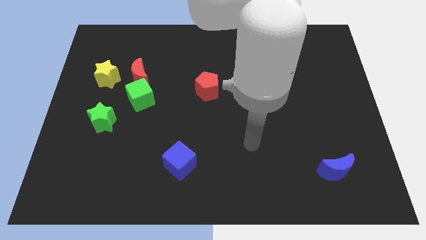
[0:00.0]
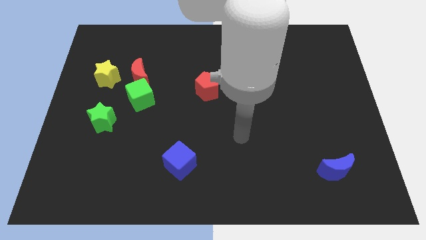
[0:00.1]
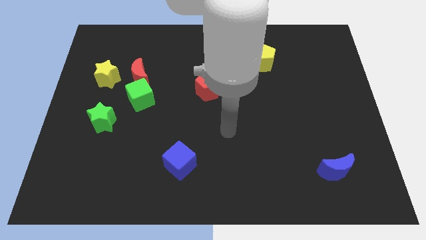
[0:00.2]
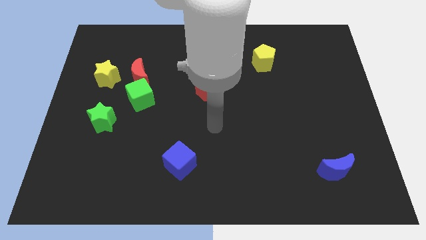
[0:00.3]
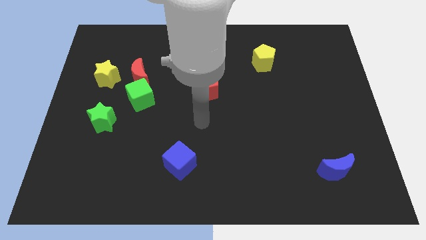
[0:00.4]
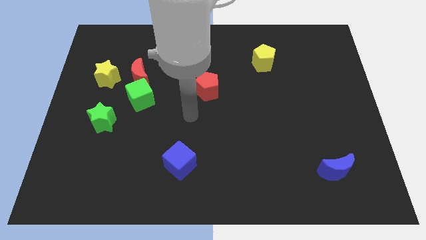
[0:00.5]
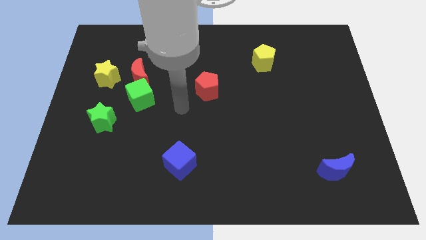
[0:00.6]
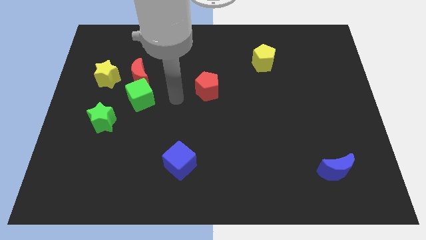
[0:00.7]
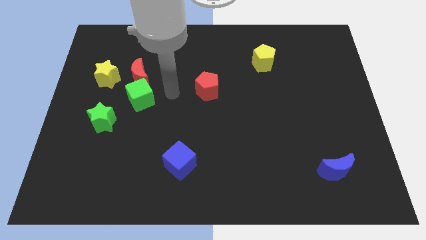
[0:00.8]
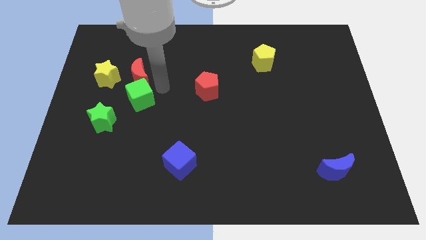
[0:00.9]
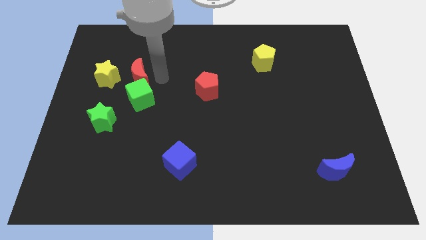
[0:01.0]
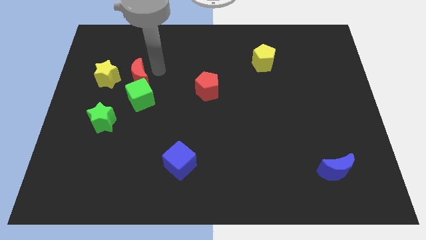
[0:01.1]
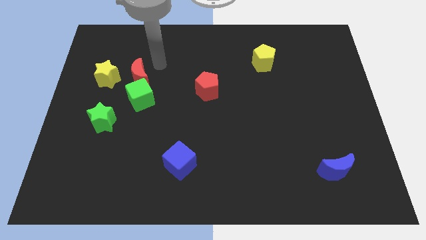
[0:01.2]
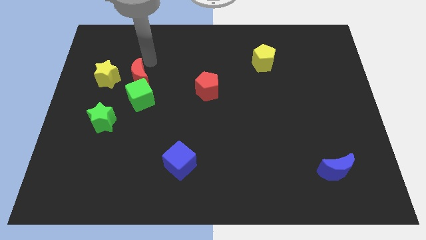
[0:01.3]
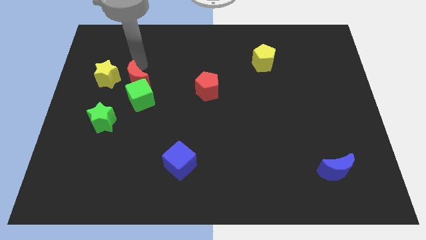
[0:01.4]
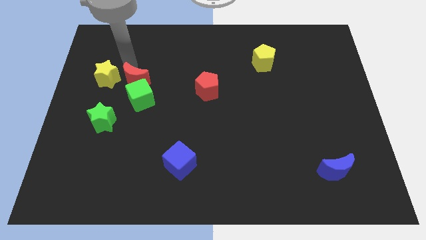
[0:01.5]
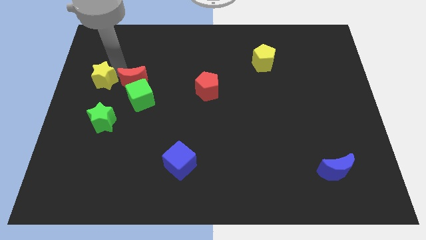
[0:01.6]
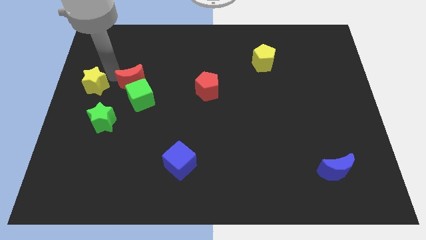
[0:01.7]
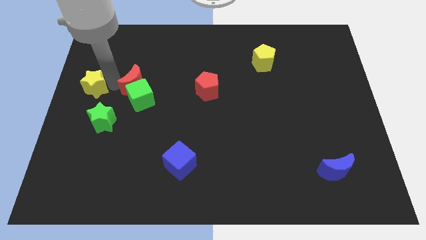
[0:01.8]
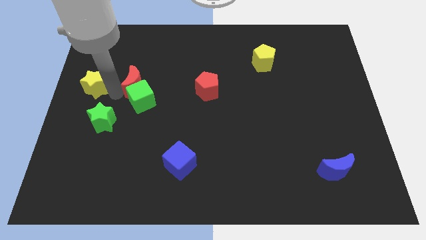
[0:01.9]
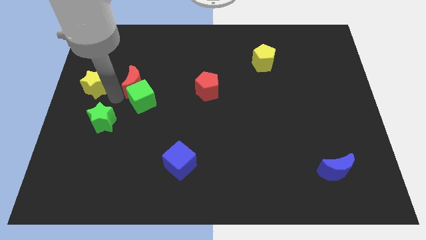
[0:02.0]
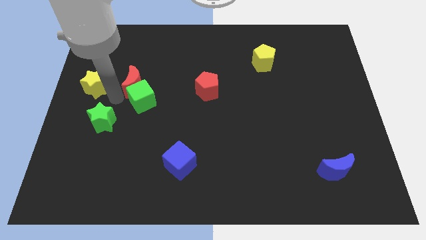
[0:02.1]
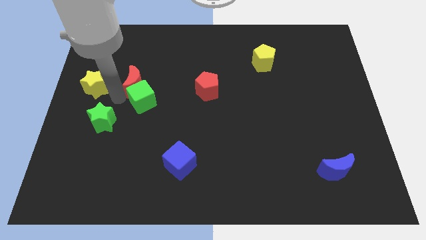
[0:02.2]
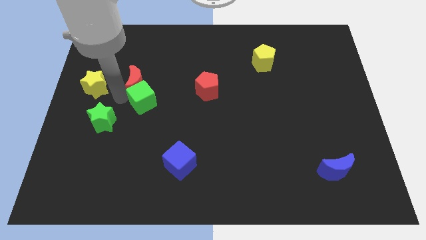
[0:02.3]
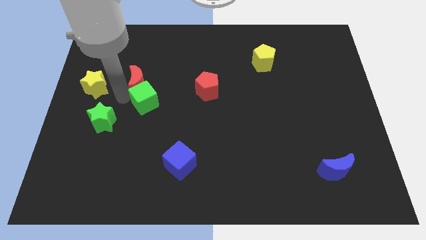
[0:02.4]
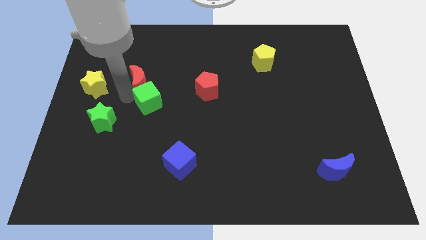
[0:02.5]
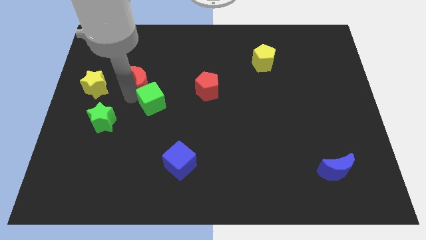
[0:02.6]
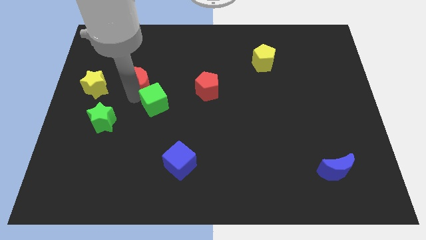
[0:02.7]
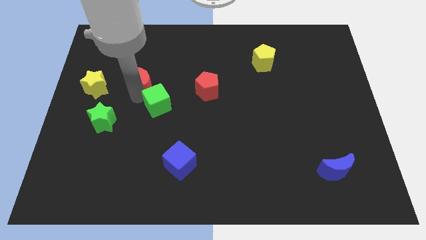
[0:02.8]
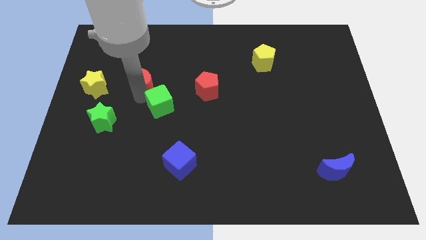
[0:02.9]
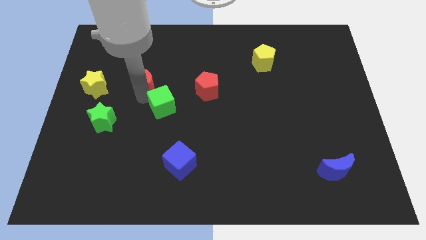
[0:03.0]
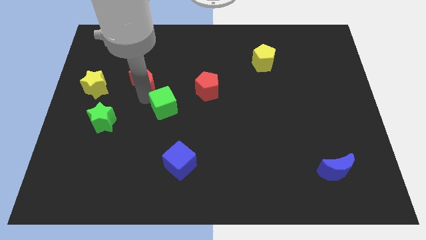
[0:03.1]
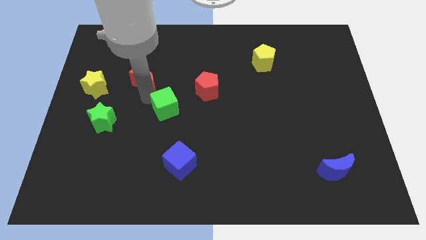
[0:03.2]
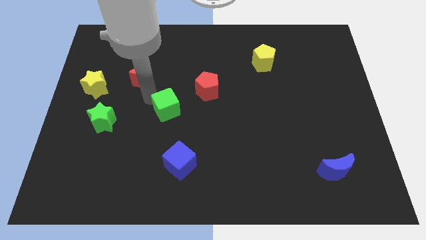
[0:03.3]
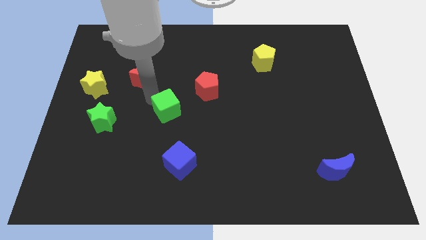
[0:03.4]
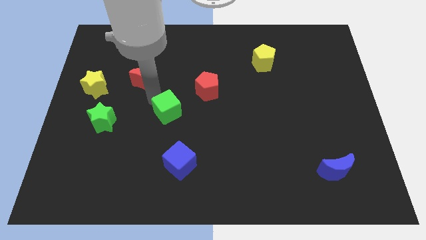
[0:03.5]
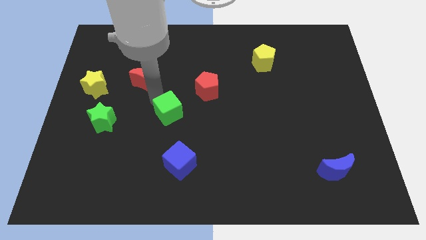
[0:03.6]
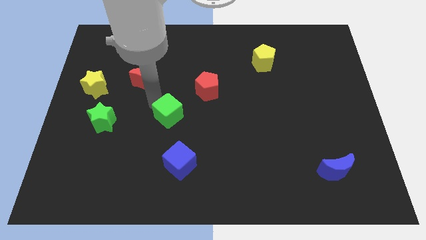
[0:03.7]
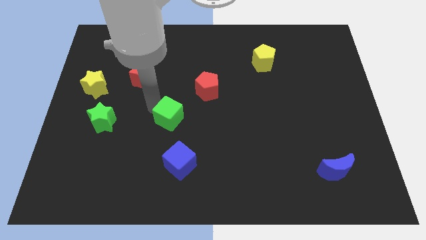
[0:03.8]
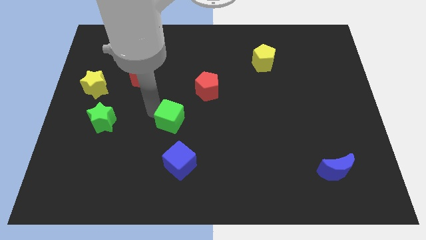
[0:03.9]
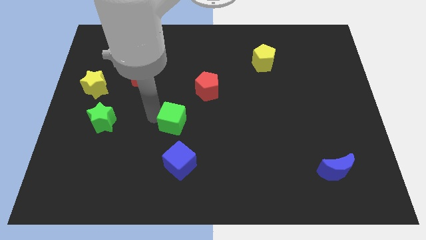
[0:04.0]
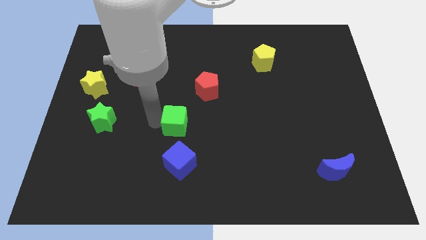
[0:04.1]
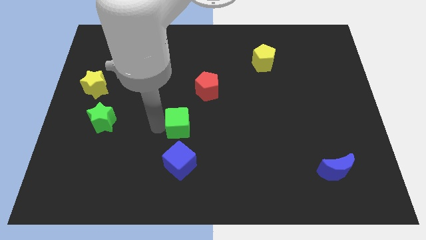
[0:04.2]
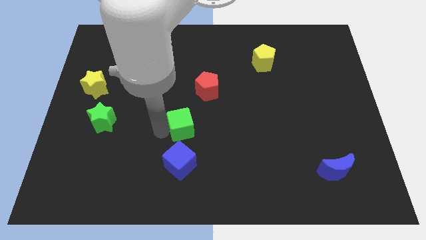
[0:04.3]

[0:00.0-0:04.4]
move the green cube to the right a little bit

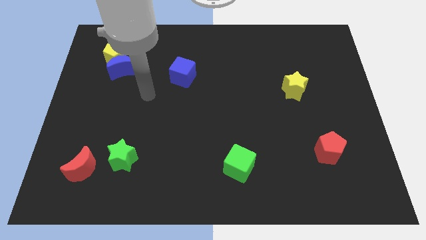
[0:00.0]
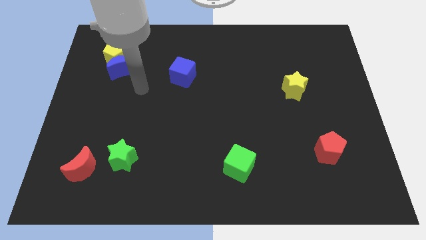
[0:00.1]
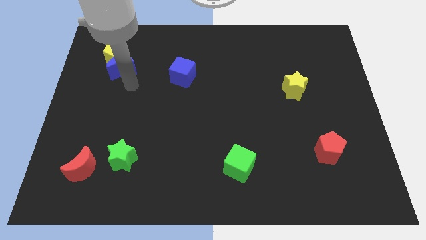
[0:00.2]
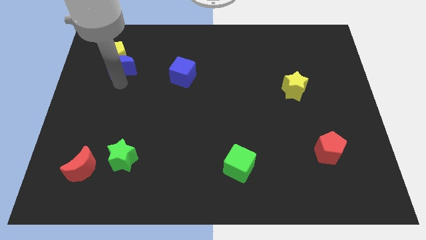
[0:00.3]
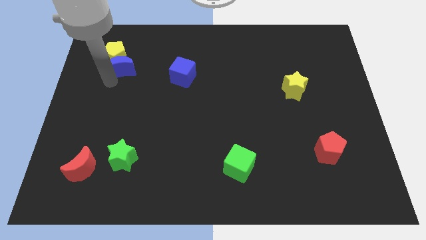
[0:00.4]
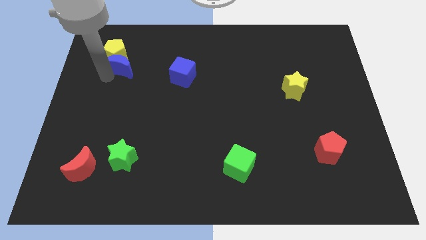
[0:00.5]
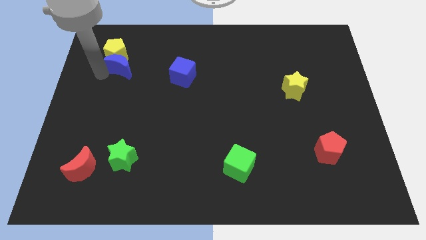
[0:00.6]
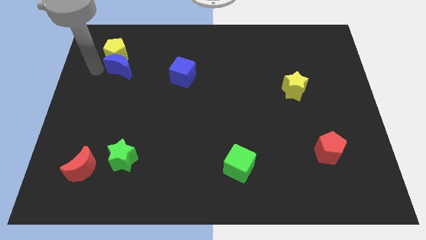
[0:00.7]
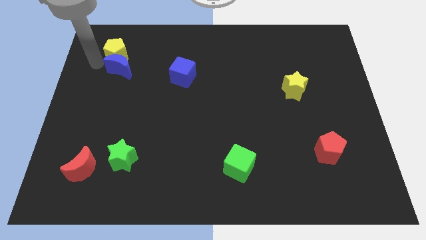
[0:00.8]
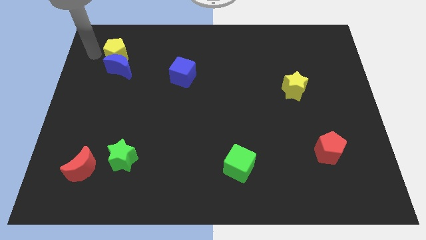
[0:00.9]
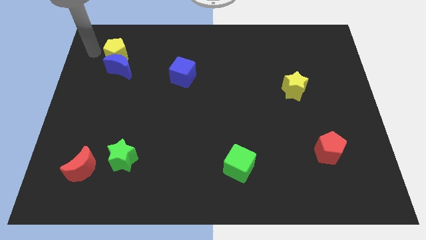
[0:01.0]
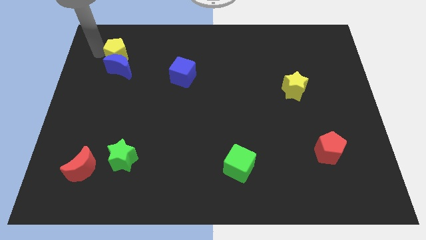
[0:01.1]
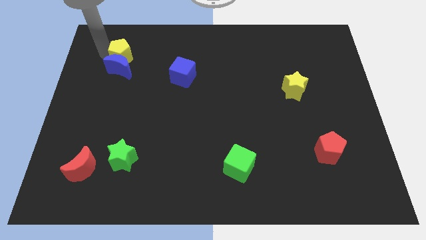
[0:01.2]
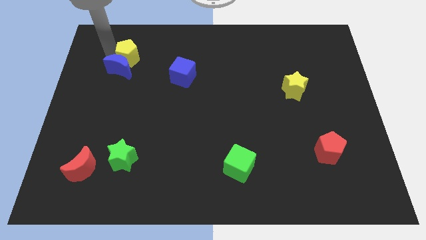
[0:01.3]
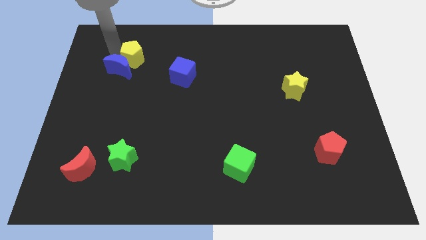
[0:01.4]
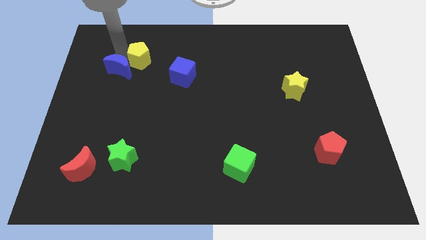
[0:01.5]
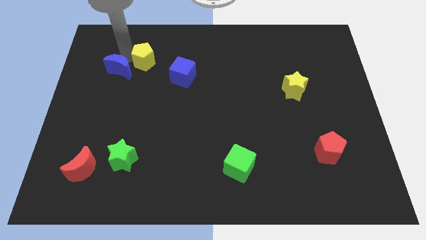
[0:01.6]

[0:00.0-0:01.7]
slightly slide the yellow pentagon to the right

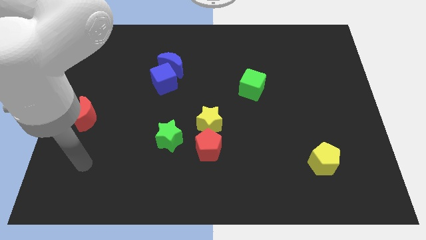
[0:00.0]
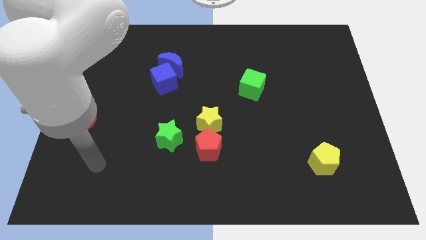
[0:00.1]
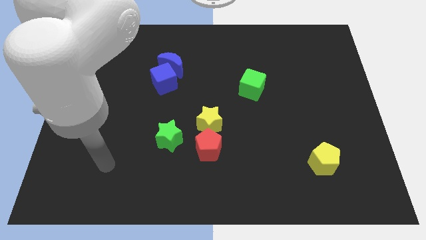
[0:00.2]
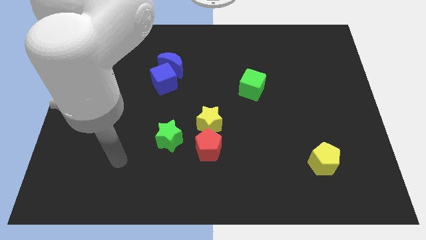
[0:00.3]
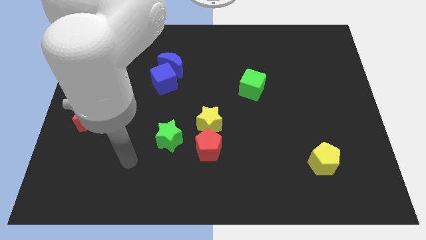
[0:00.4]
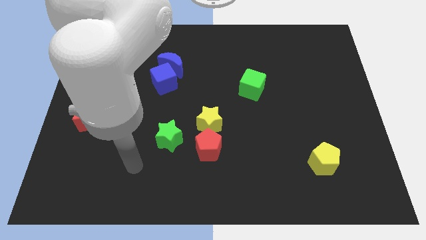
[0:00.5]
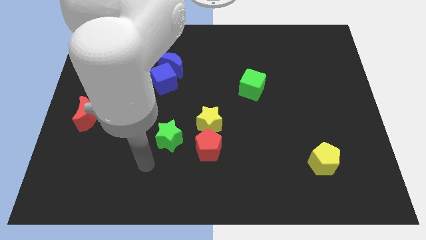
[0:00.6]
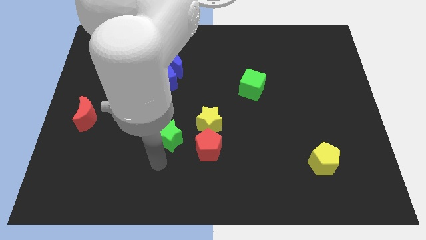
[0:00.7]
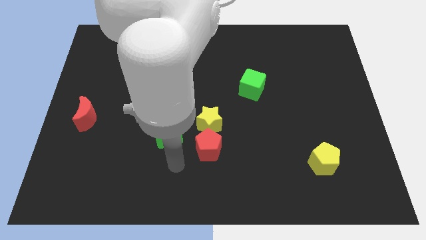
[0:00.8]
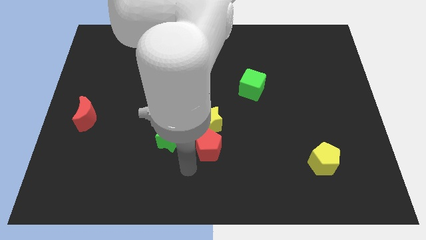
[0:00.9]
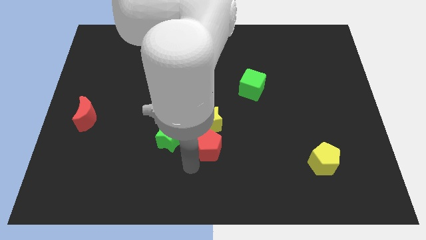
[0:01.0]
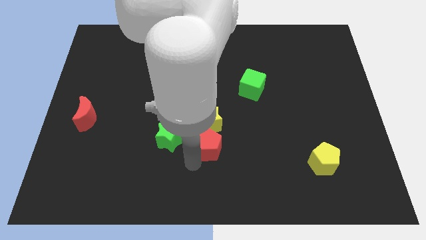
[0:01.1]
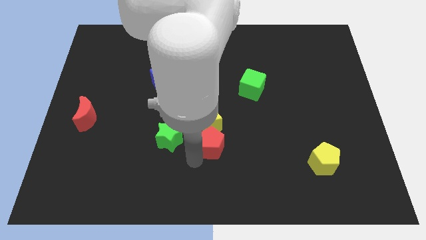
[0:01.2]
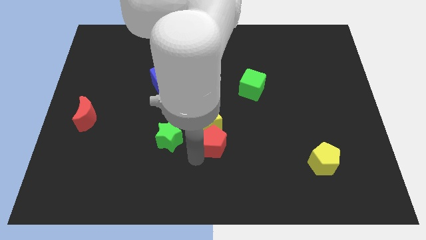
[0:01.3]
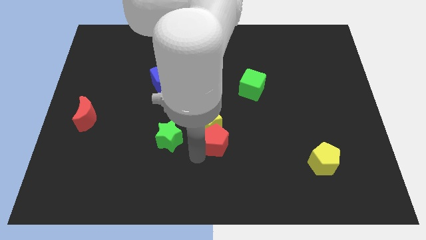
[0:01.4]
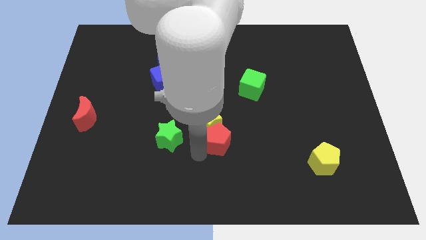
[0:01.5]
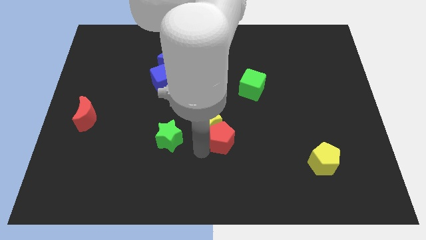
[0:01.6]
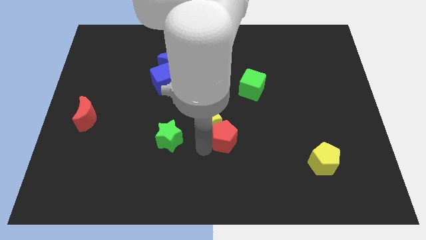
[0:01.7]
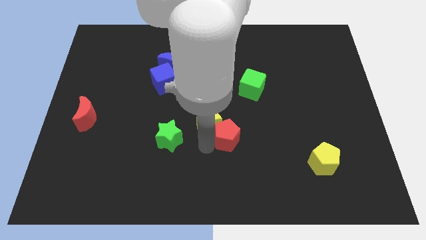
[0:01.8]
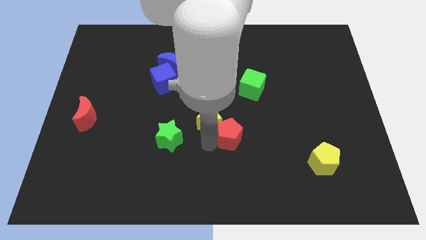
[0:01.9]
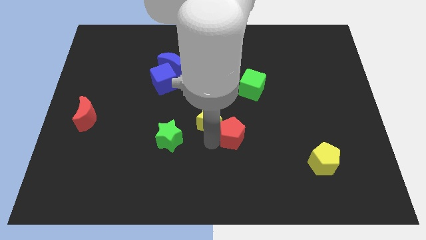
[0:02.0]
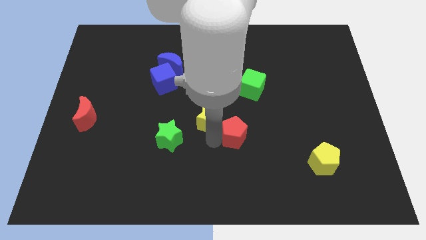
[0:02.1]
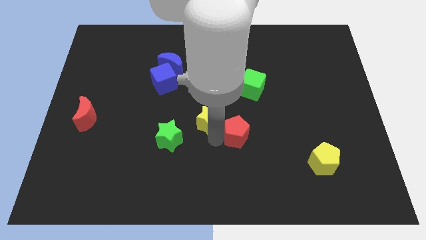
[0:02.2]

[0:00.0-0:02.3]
move the red pentagon a little bit diagonally up and right
